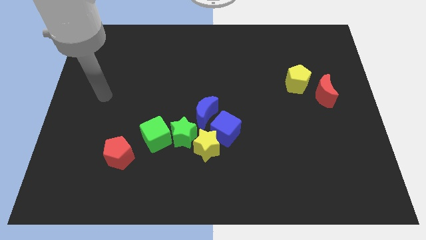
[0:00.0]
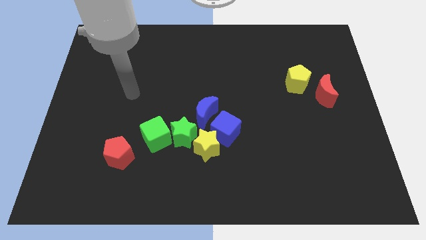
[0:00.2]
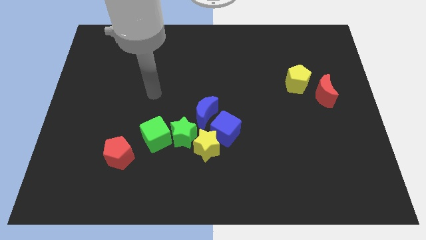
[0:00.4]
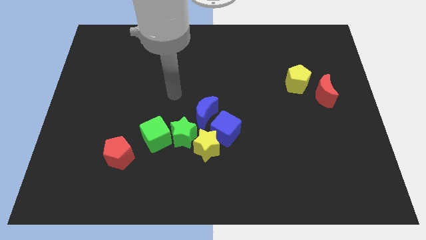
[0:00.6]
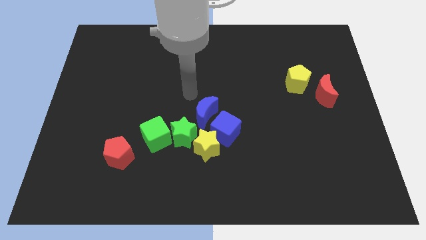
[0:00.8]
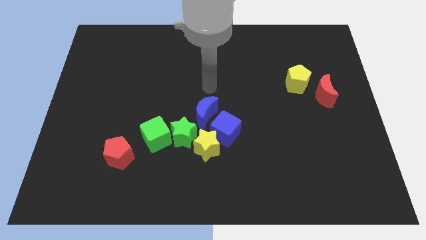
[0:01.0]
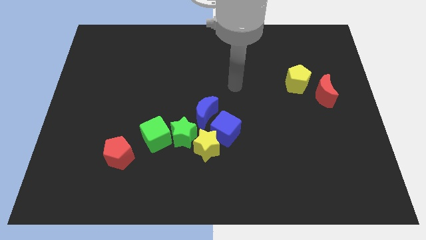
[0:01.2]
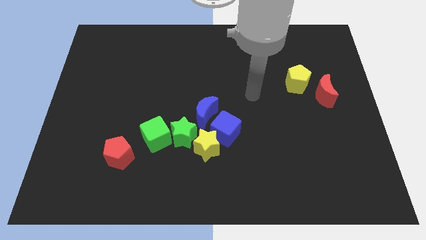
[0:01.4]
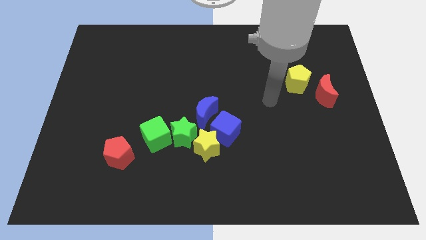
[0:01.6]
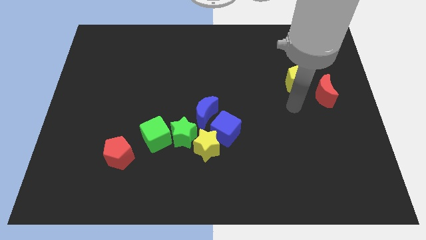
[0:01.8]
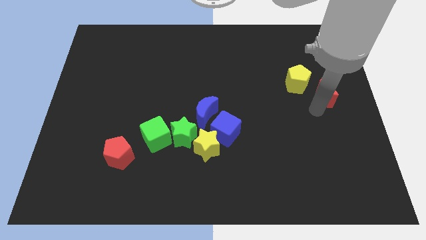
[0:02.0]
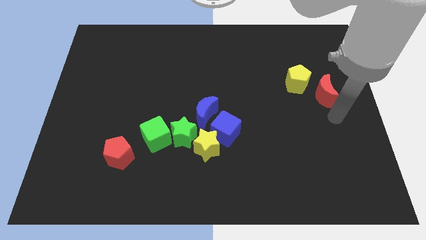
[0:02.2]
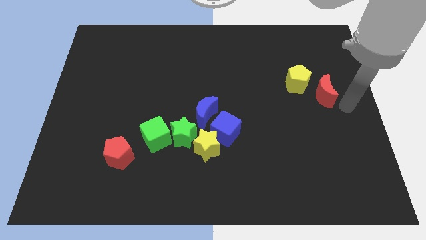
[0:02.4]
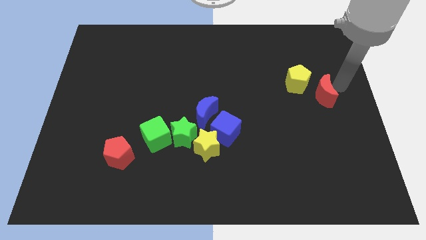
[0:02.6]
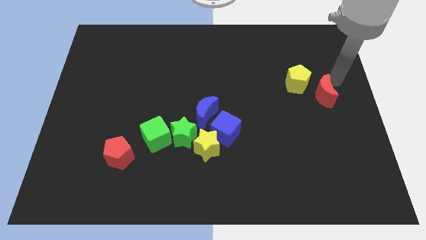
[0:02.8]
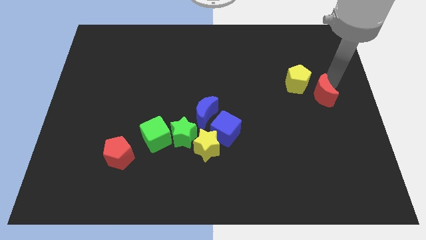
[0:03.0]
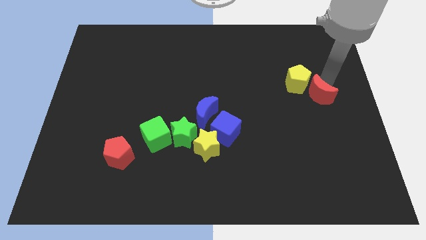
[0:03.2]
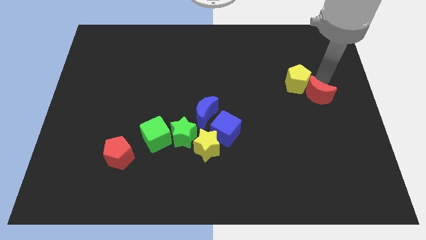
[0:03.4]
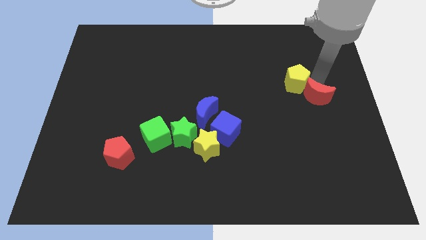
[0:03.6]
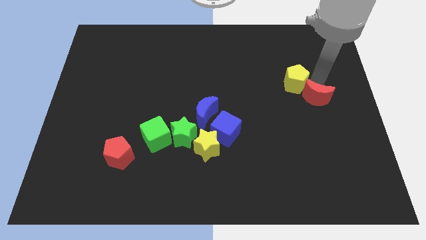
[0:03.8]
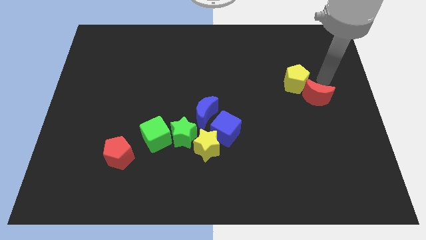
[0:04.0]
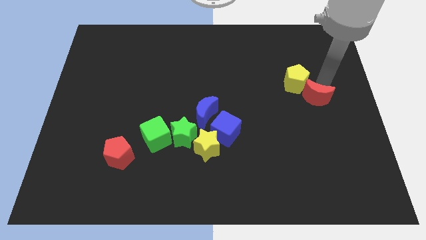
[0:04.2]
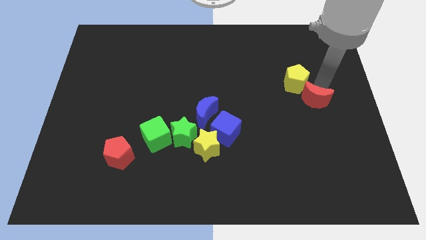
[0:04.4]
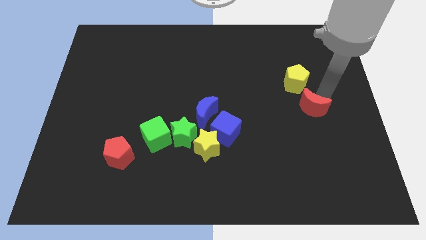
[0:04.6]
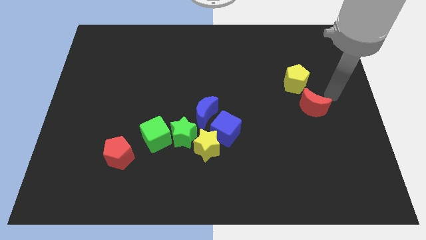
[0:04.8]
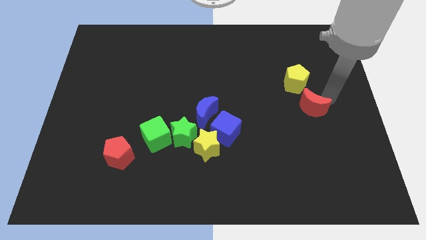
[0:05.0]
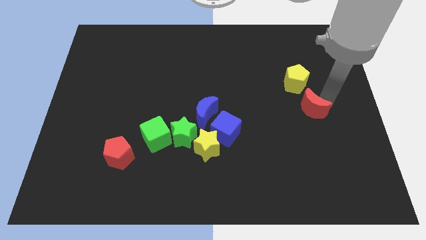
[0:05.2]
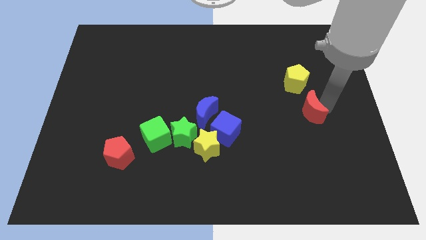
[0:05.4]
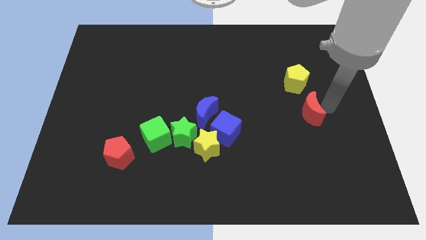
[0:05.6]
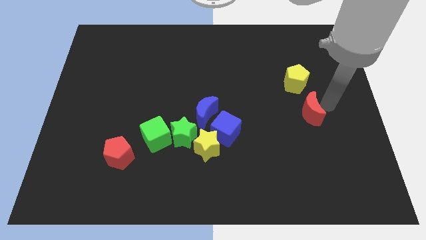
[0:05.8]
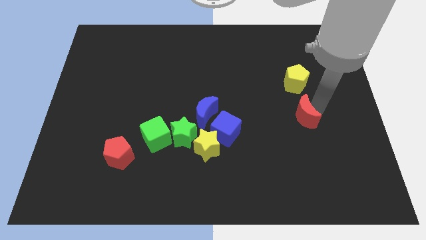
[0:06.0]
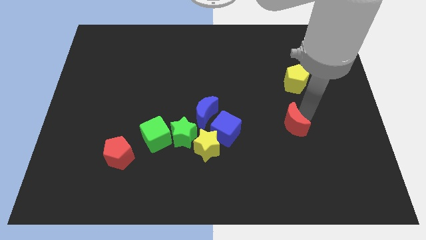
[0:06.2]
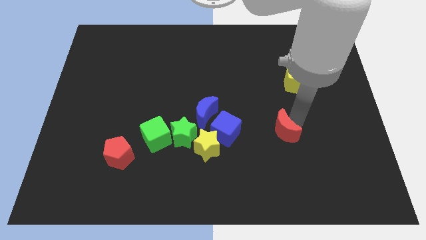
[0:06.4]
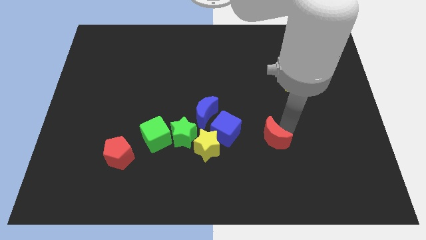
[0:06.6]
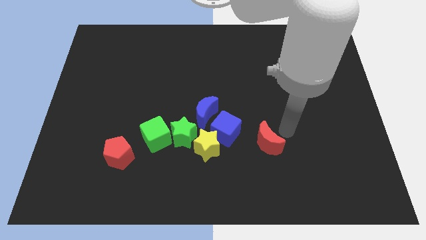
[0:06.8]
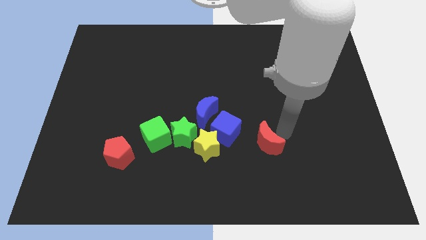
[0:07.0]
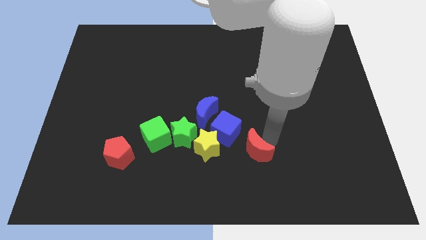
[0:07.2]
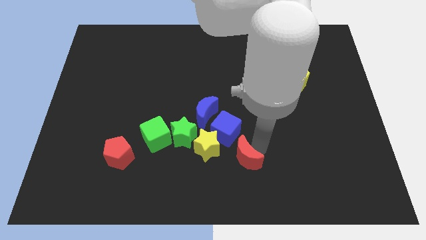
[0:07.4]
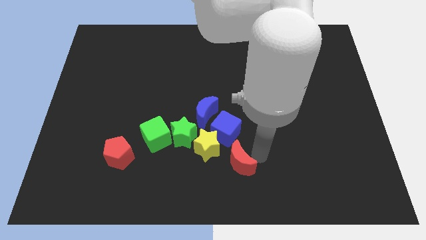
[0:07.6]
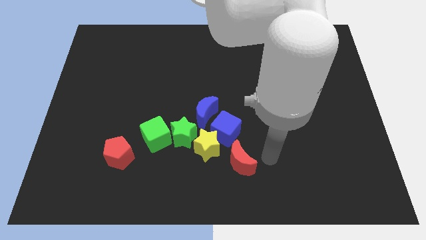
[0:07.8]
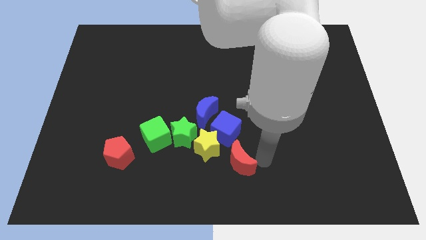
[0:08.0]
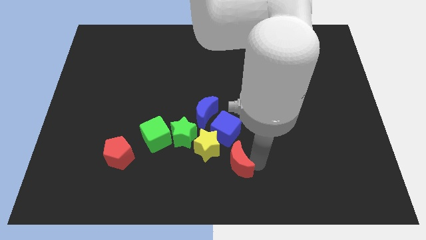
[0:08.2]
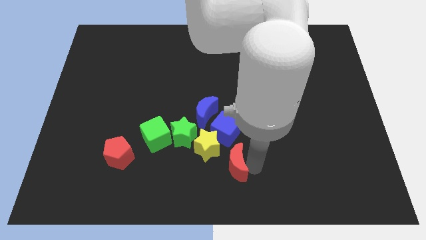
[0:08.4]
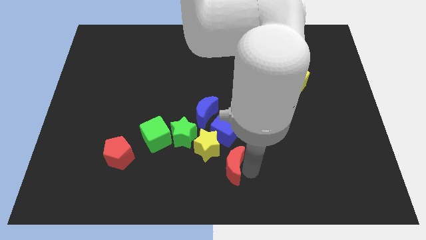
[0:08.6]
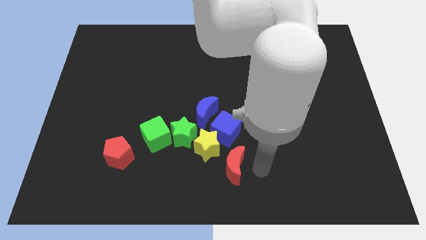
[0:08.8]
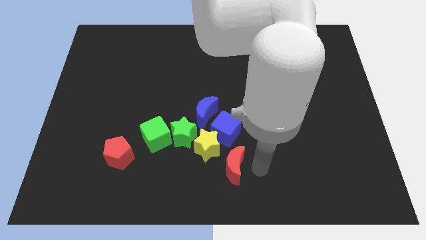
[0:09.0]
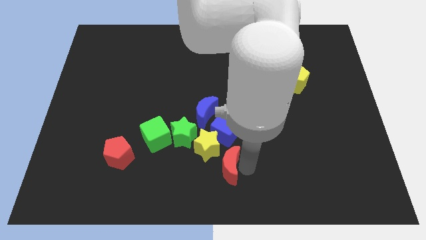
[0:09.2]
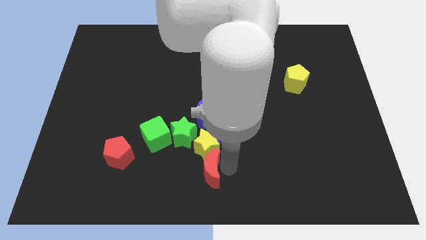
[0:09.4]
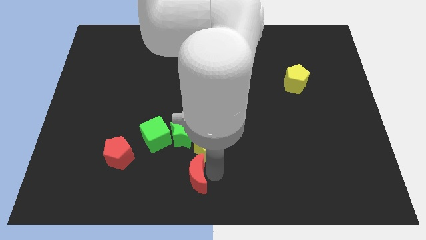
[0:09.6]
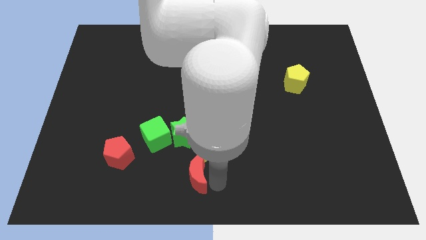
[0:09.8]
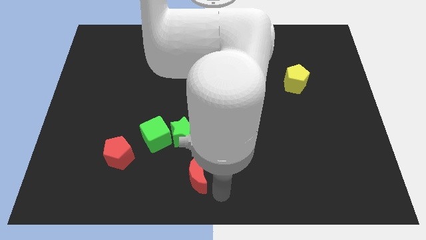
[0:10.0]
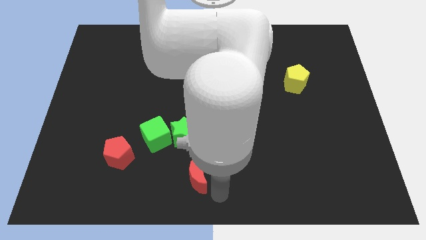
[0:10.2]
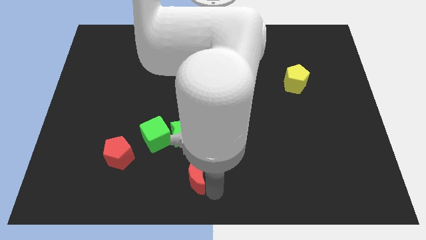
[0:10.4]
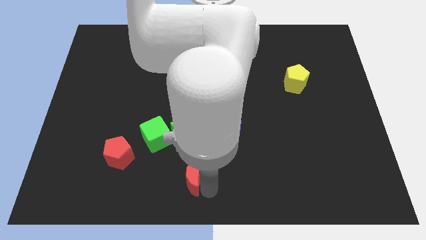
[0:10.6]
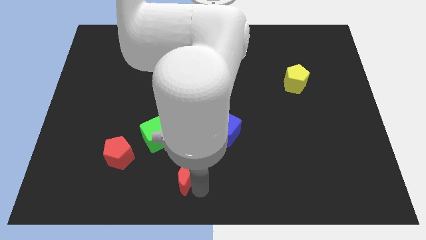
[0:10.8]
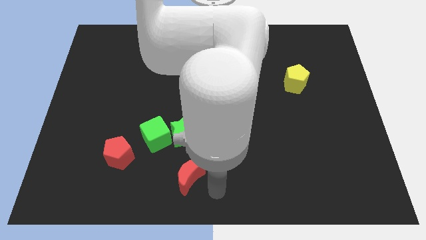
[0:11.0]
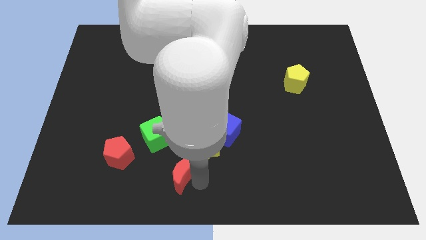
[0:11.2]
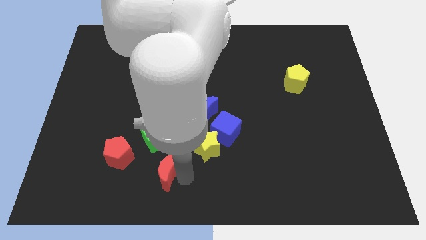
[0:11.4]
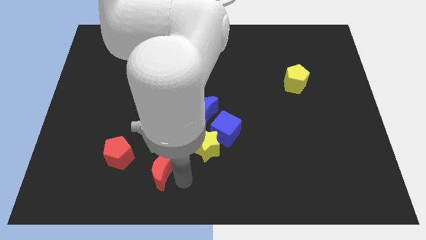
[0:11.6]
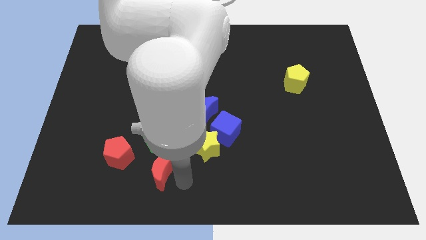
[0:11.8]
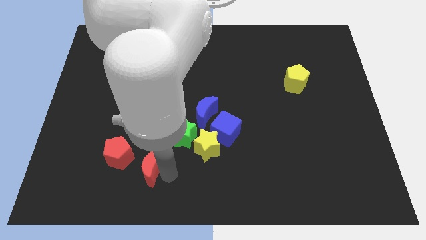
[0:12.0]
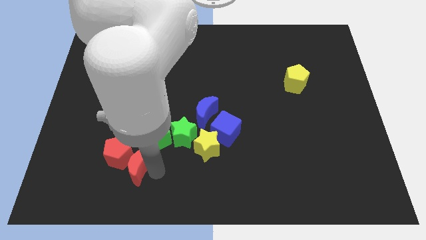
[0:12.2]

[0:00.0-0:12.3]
slide the red moon next to the red pentagon
